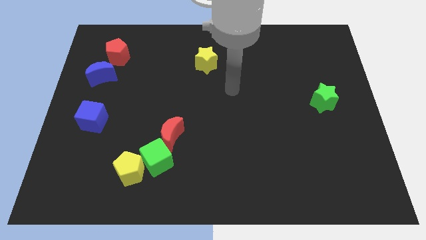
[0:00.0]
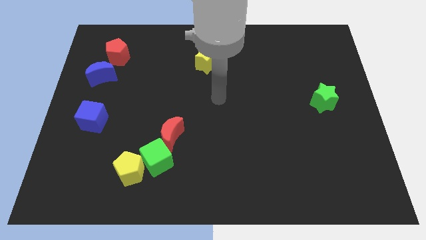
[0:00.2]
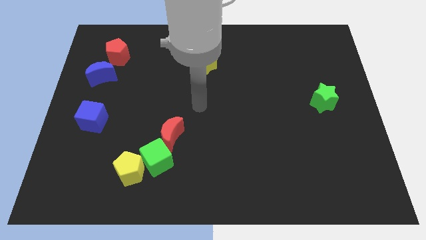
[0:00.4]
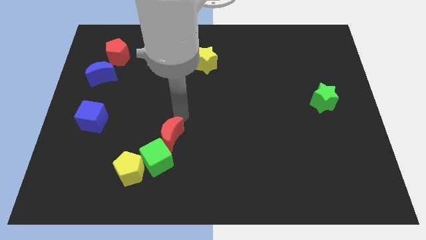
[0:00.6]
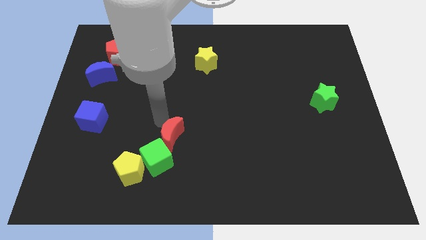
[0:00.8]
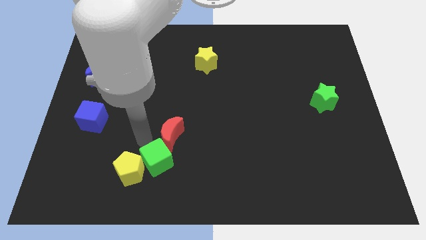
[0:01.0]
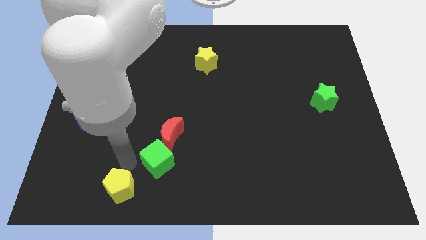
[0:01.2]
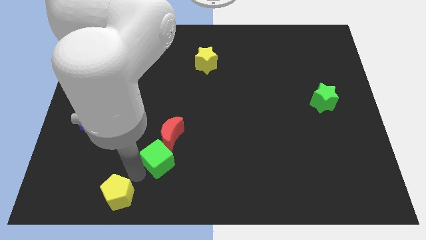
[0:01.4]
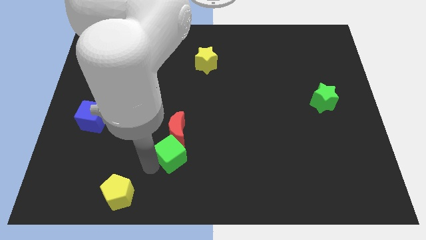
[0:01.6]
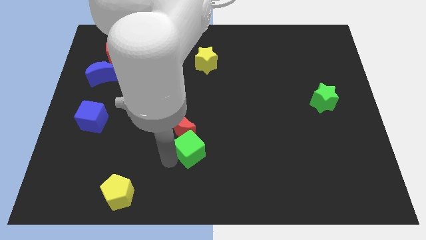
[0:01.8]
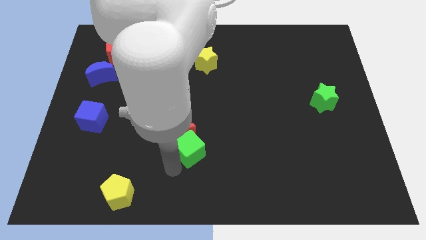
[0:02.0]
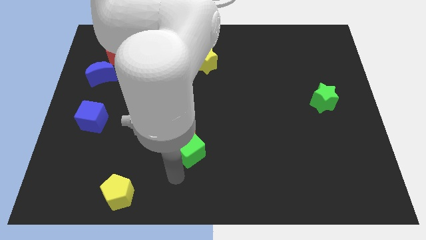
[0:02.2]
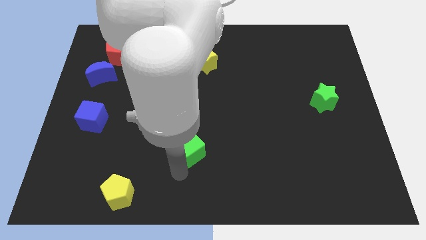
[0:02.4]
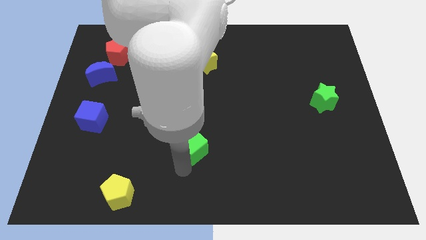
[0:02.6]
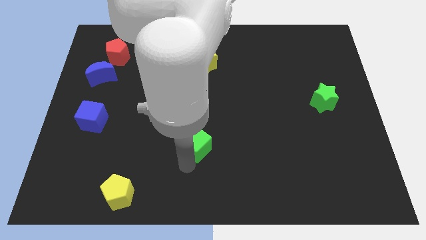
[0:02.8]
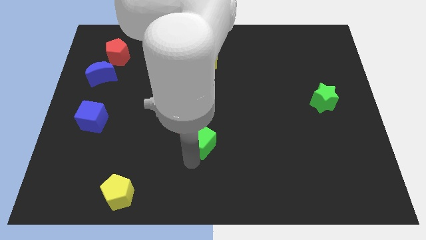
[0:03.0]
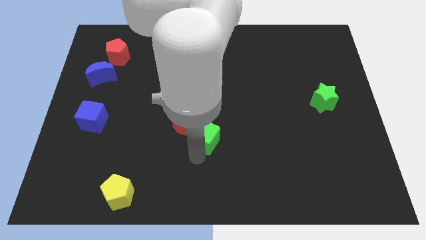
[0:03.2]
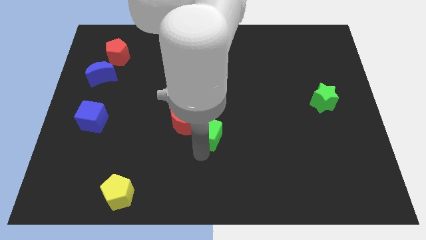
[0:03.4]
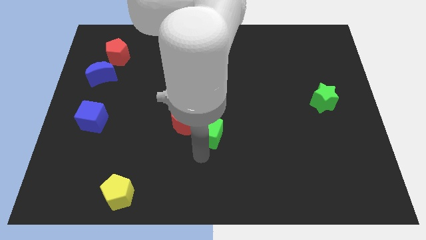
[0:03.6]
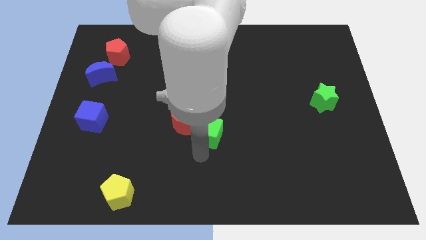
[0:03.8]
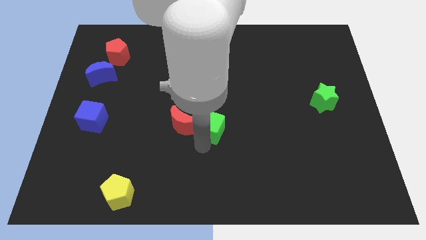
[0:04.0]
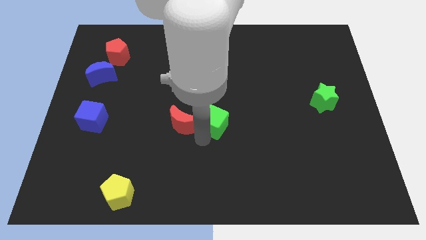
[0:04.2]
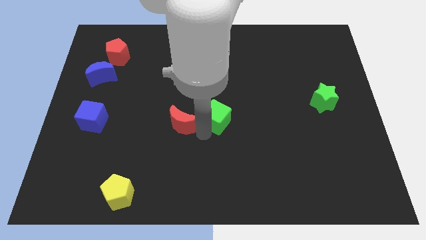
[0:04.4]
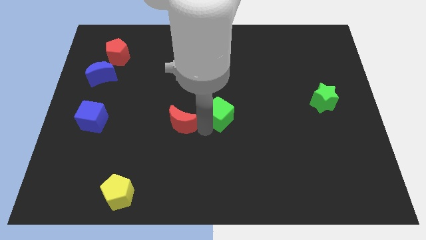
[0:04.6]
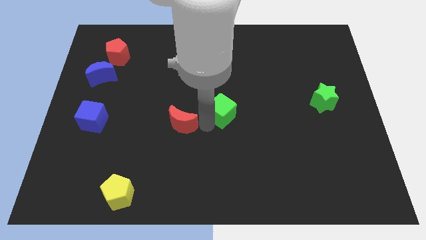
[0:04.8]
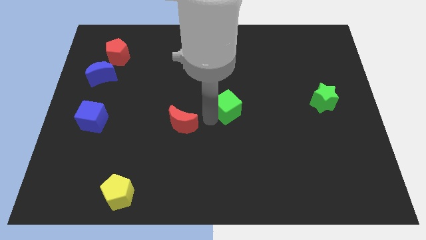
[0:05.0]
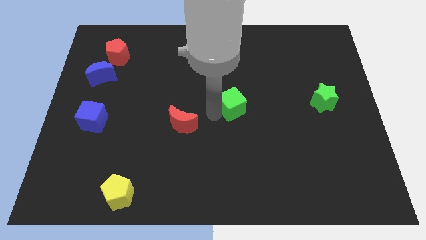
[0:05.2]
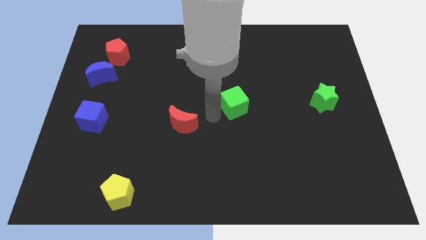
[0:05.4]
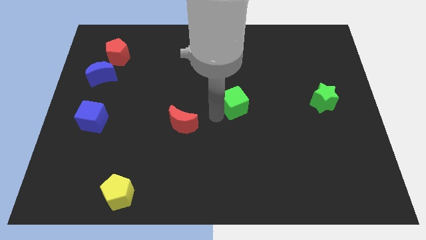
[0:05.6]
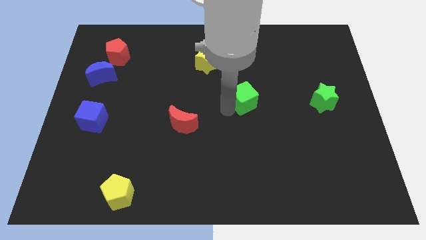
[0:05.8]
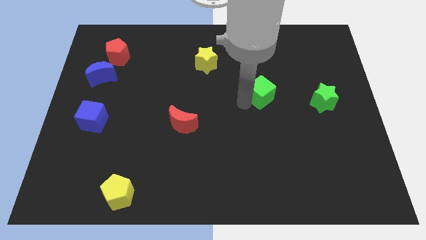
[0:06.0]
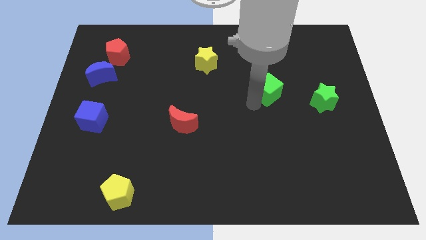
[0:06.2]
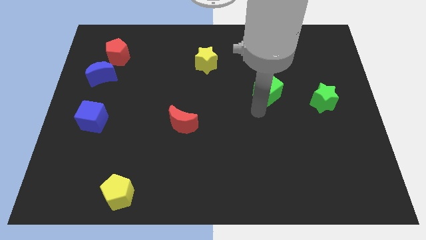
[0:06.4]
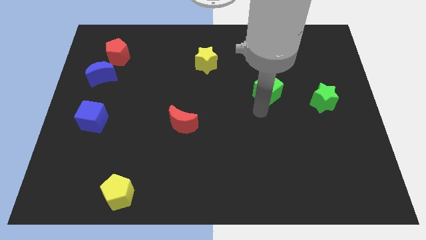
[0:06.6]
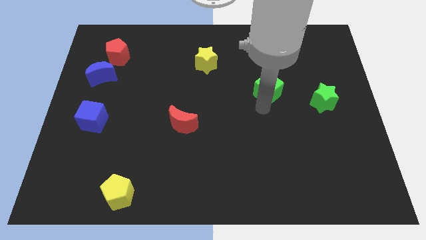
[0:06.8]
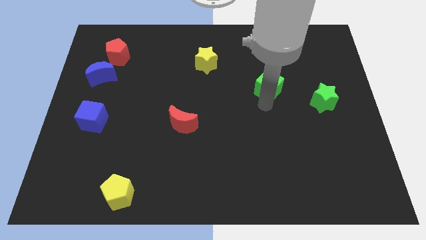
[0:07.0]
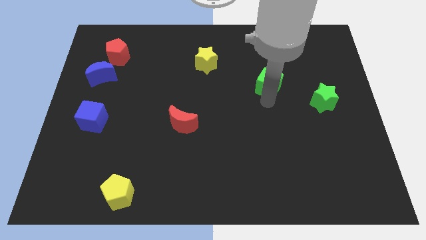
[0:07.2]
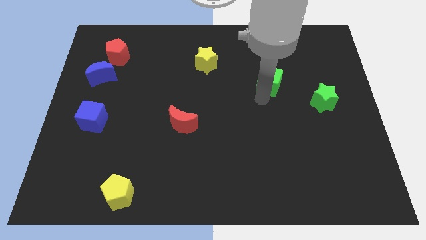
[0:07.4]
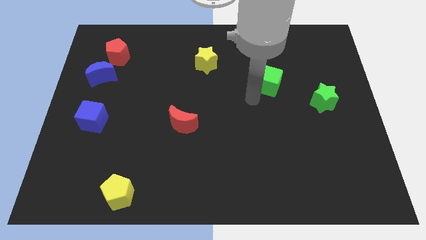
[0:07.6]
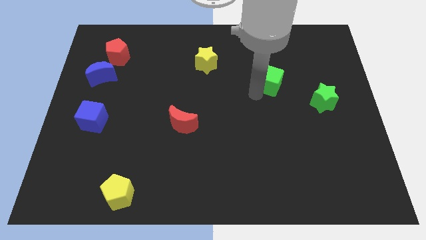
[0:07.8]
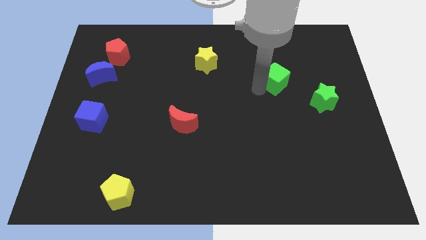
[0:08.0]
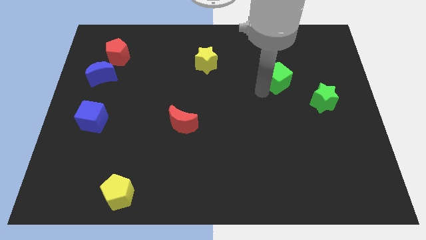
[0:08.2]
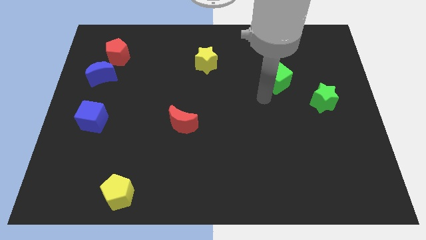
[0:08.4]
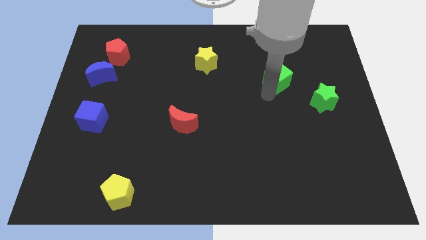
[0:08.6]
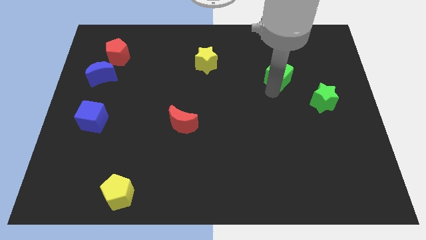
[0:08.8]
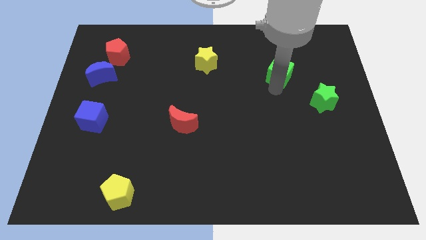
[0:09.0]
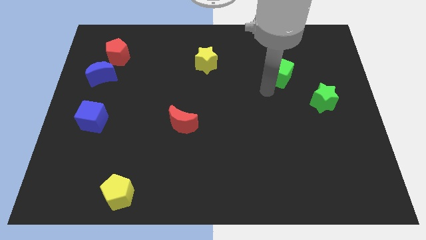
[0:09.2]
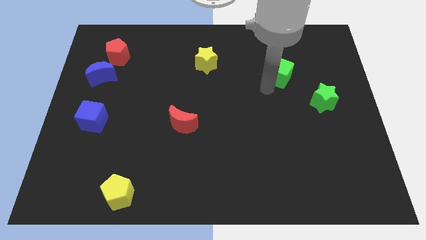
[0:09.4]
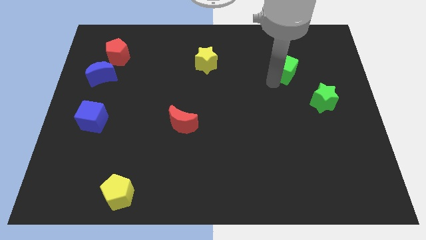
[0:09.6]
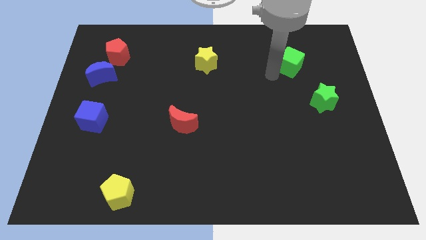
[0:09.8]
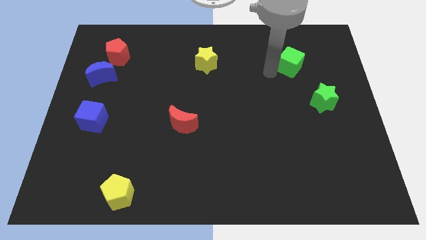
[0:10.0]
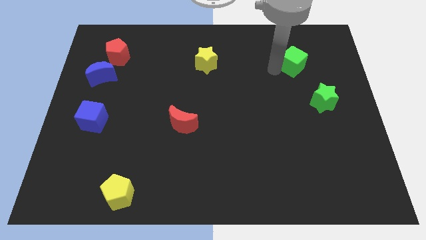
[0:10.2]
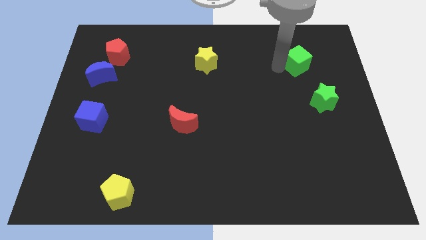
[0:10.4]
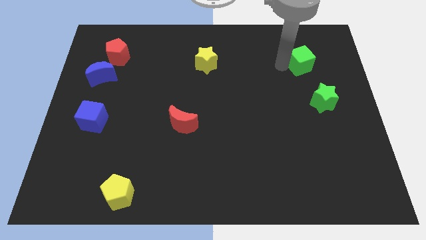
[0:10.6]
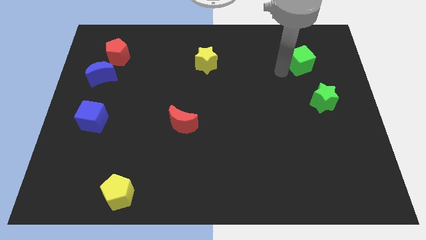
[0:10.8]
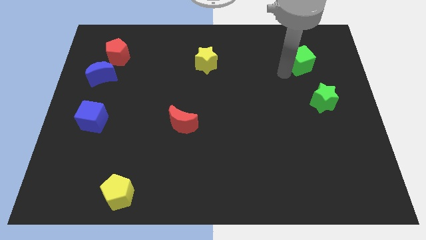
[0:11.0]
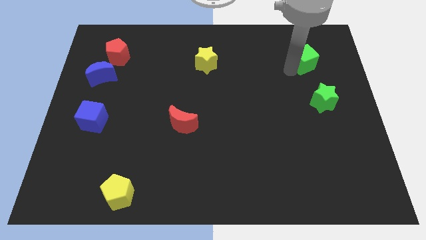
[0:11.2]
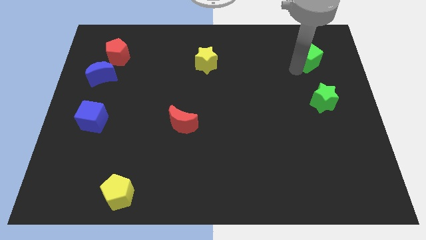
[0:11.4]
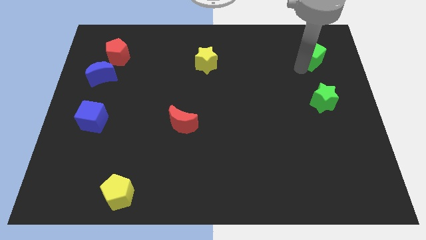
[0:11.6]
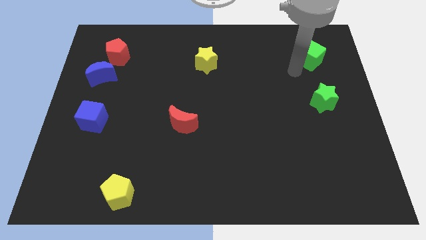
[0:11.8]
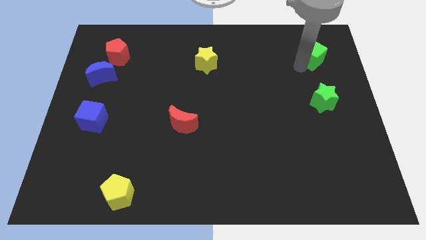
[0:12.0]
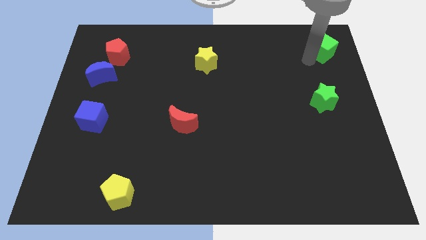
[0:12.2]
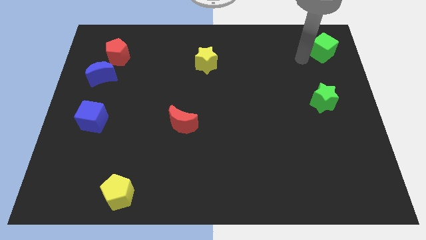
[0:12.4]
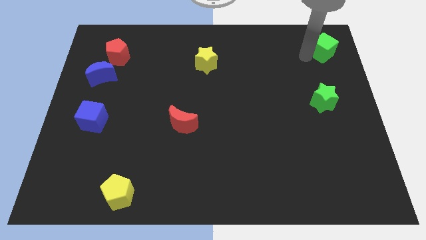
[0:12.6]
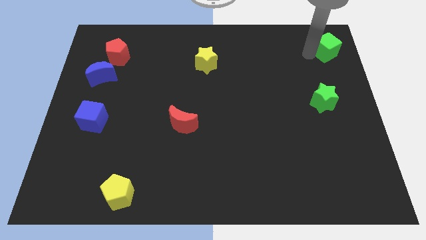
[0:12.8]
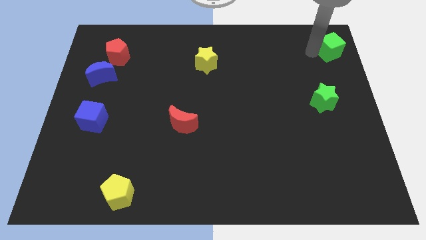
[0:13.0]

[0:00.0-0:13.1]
move the green cube to the top right of the board

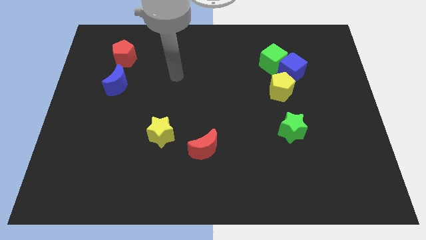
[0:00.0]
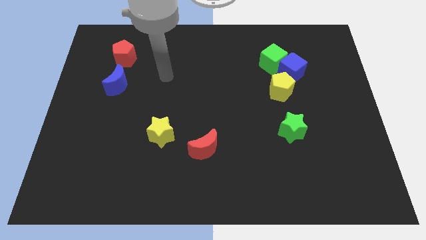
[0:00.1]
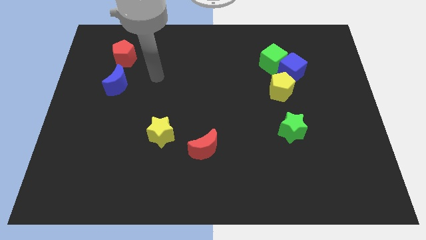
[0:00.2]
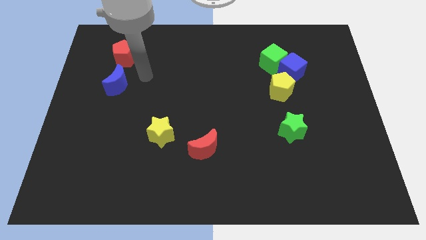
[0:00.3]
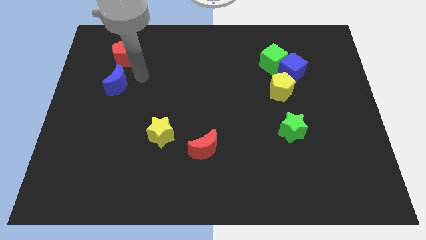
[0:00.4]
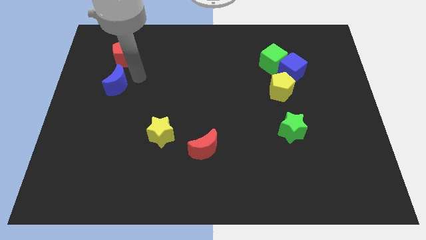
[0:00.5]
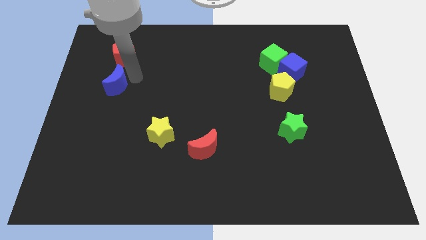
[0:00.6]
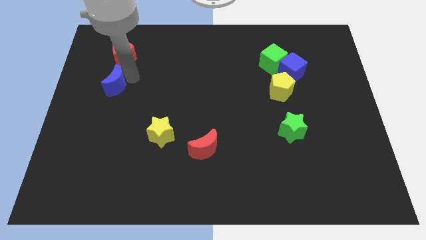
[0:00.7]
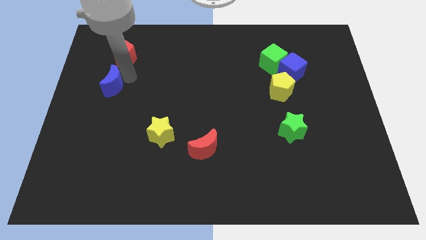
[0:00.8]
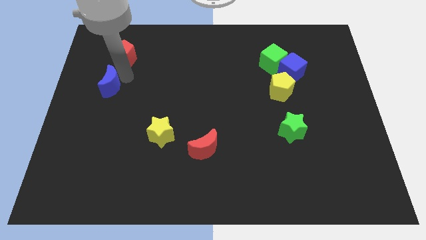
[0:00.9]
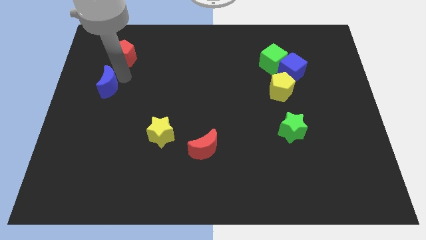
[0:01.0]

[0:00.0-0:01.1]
put the blue moon to the left side of the board
